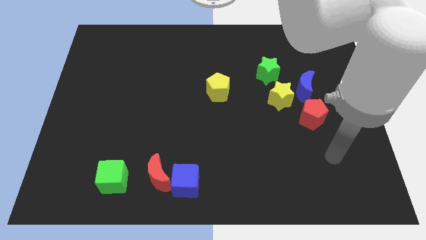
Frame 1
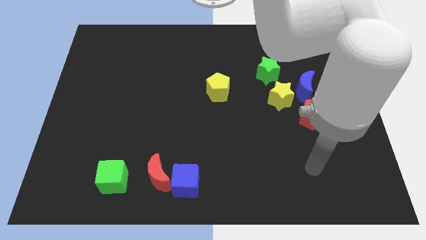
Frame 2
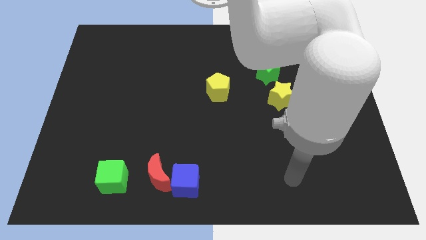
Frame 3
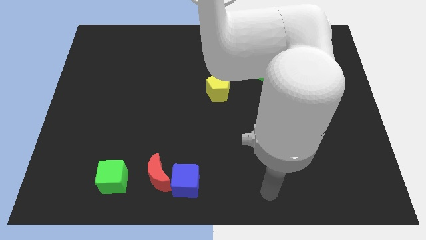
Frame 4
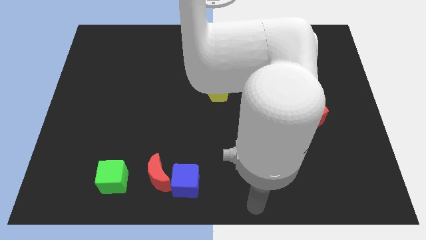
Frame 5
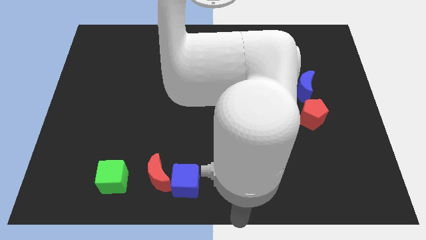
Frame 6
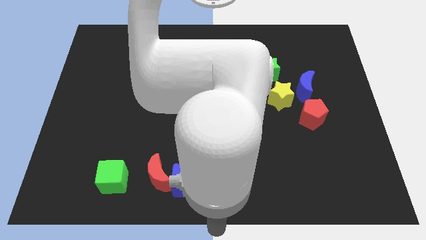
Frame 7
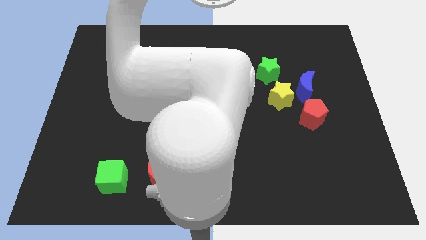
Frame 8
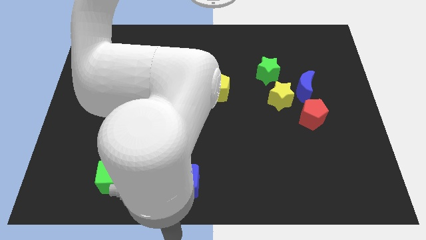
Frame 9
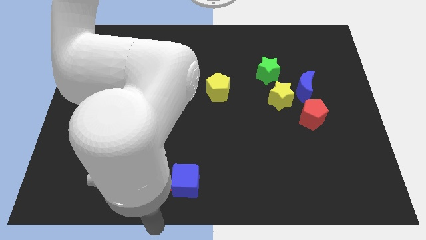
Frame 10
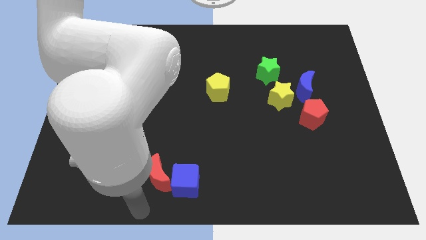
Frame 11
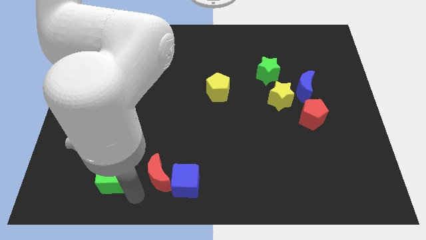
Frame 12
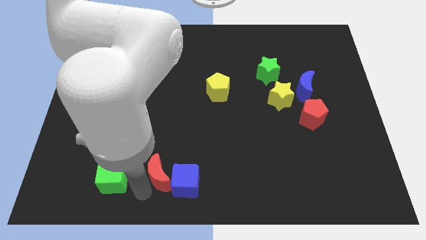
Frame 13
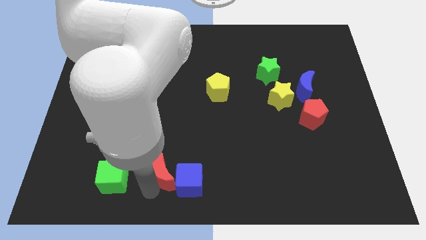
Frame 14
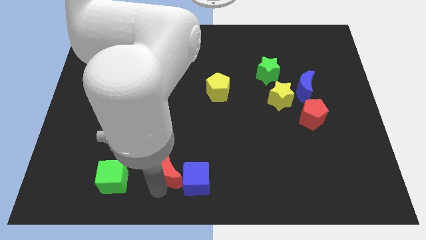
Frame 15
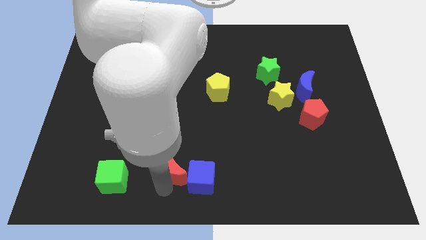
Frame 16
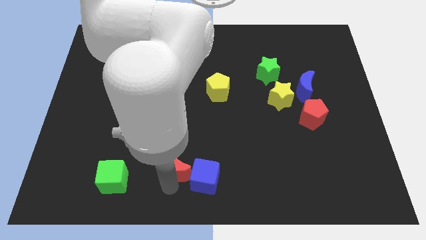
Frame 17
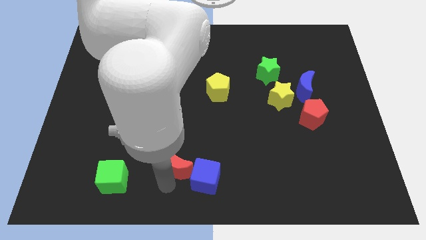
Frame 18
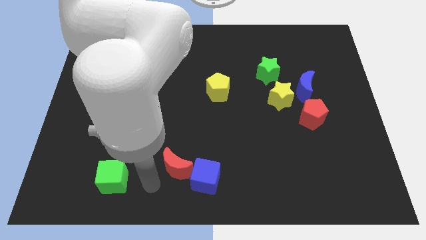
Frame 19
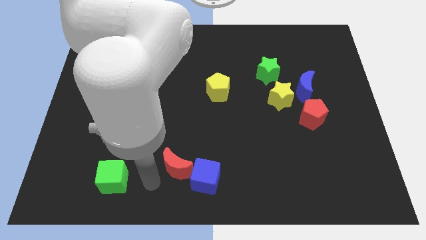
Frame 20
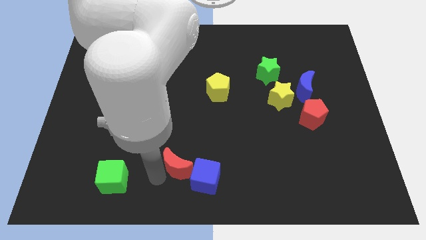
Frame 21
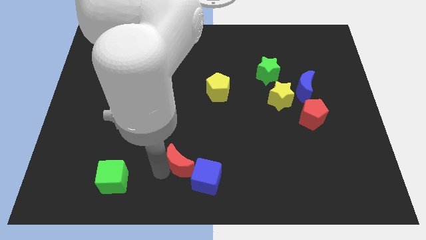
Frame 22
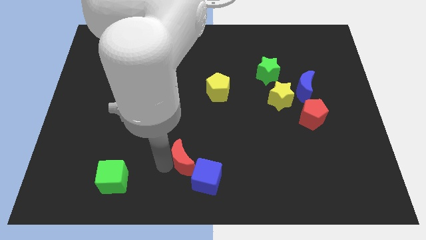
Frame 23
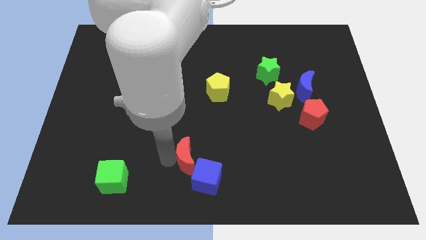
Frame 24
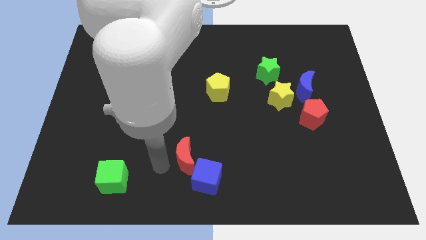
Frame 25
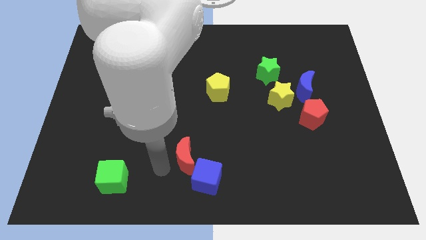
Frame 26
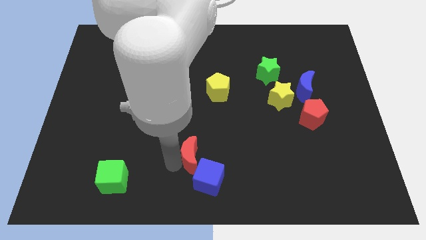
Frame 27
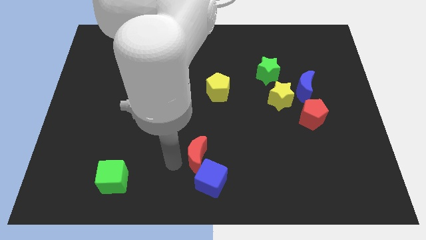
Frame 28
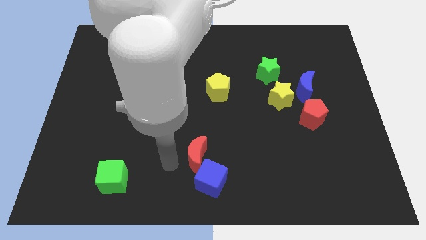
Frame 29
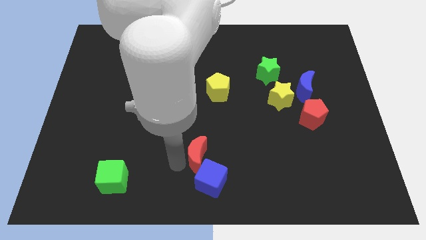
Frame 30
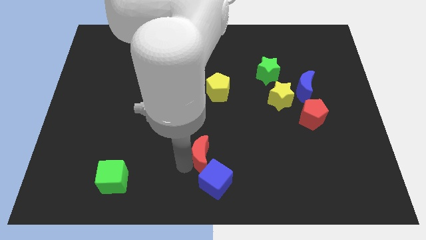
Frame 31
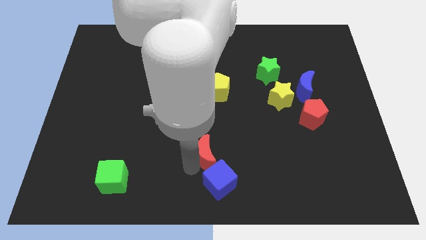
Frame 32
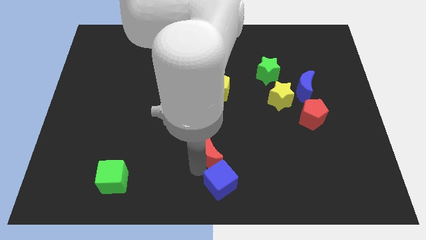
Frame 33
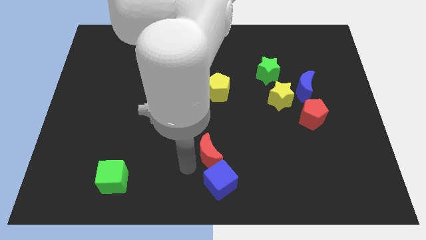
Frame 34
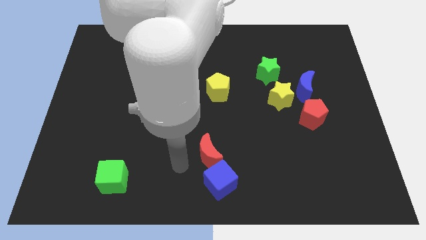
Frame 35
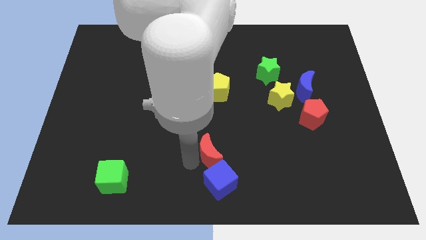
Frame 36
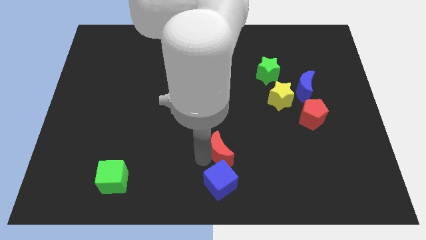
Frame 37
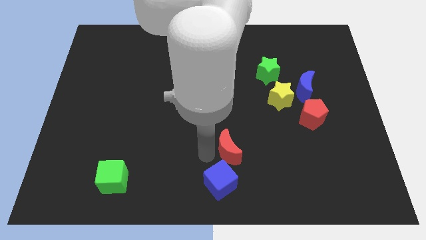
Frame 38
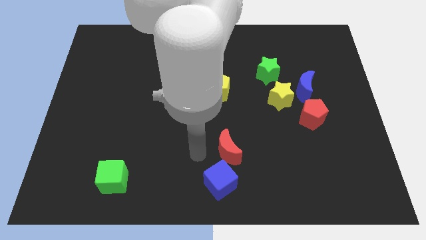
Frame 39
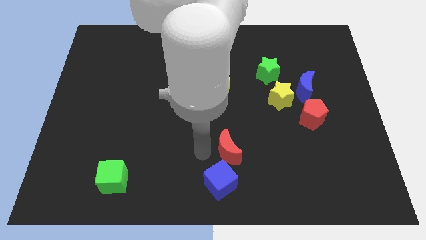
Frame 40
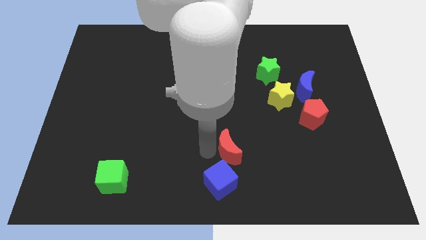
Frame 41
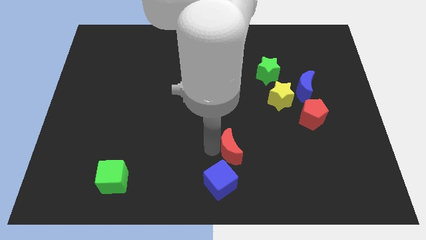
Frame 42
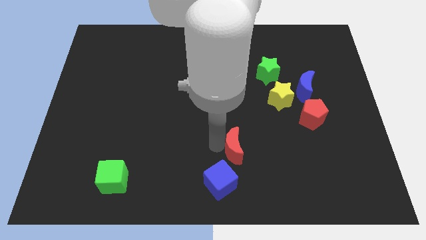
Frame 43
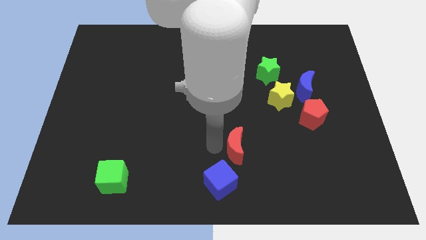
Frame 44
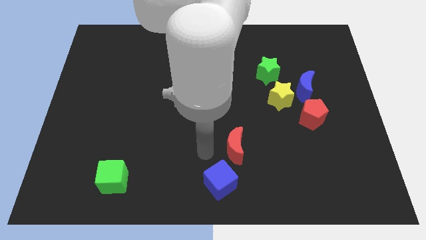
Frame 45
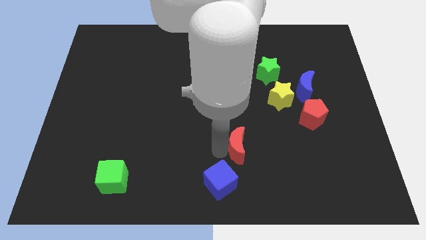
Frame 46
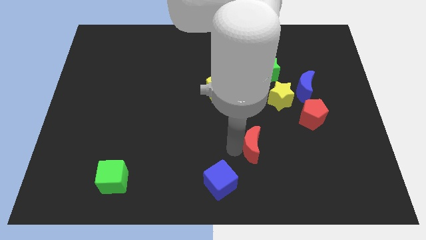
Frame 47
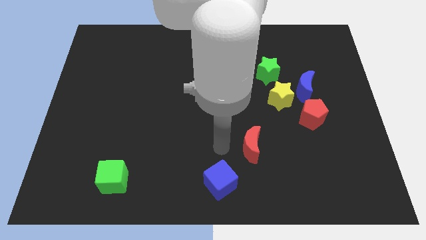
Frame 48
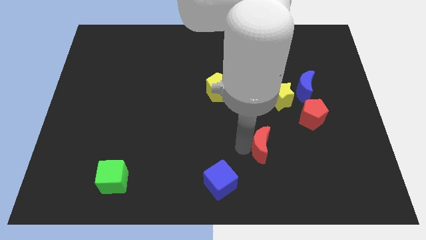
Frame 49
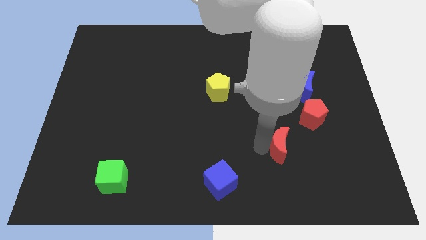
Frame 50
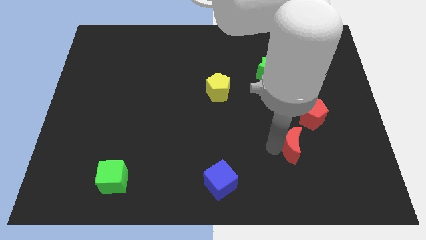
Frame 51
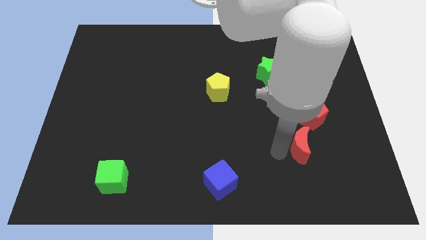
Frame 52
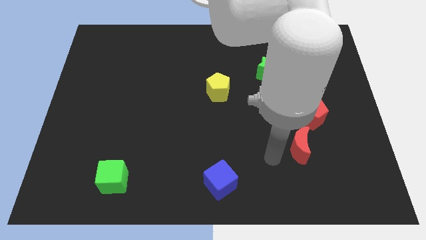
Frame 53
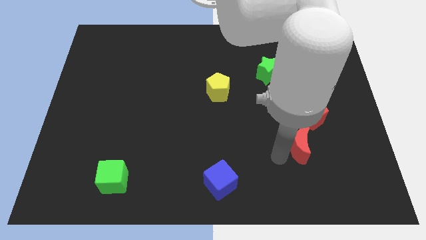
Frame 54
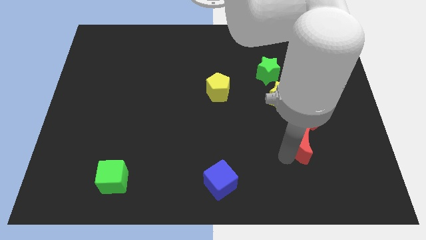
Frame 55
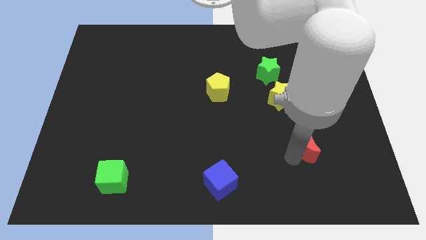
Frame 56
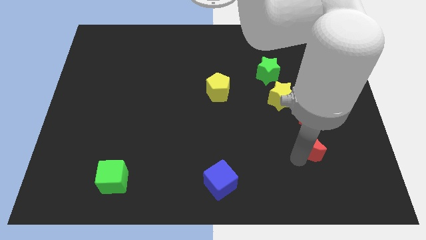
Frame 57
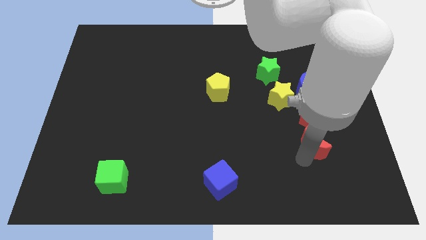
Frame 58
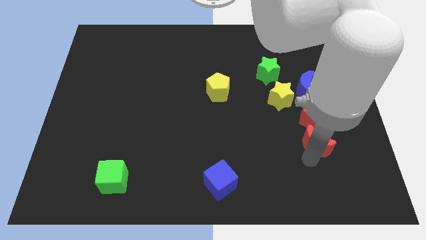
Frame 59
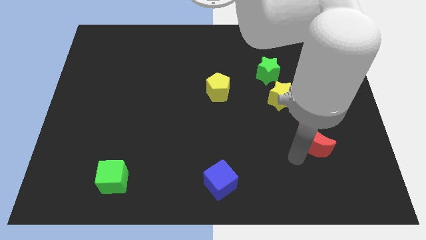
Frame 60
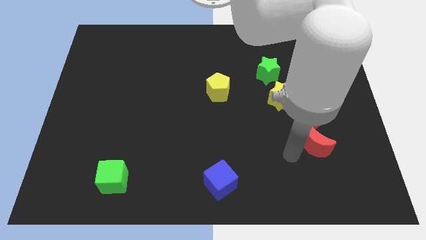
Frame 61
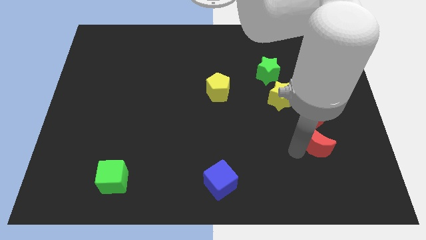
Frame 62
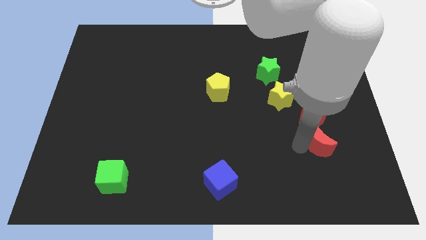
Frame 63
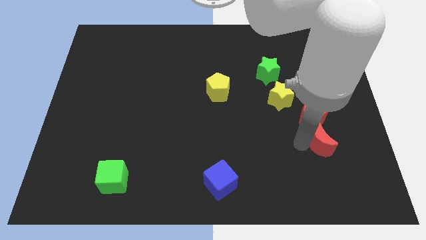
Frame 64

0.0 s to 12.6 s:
put the red moon to the bottom right of the red pentagon

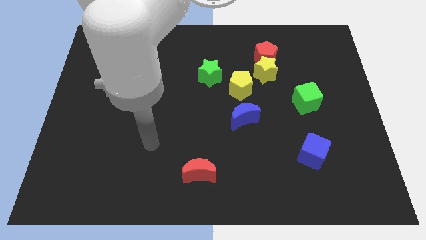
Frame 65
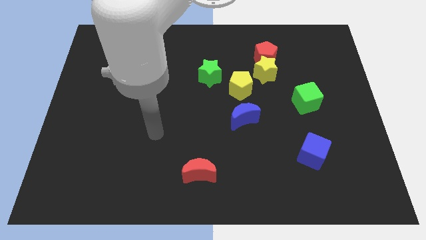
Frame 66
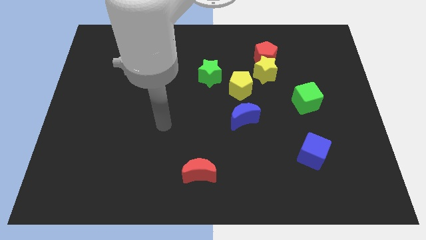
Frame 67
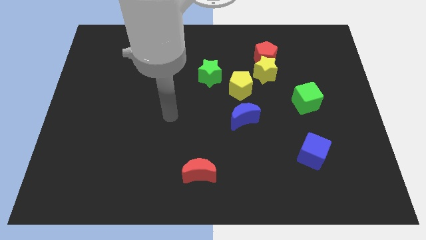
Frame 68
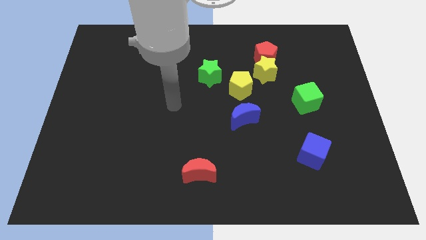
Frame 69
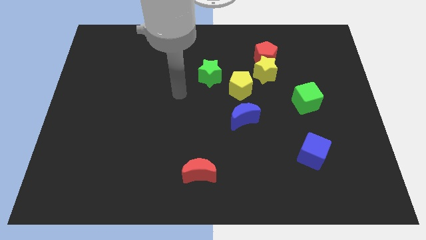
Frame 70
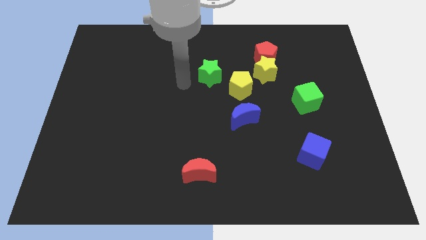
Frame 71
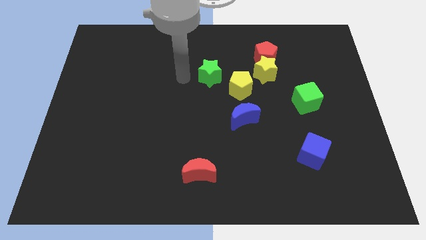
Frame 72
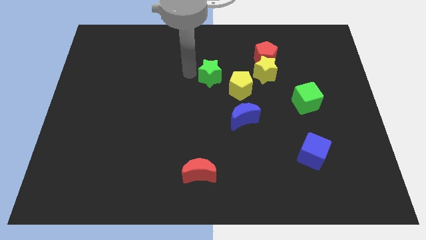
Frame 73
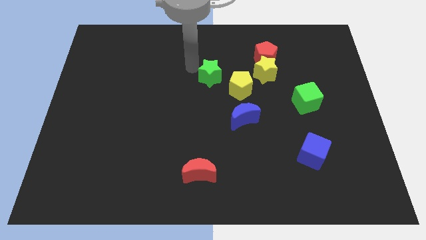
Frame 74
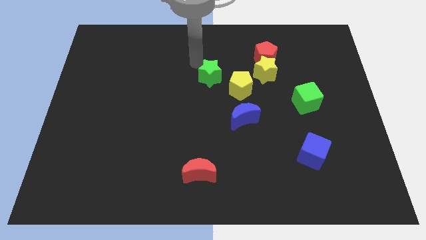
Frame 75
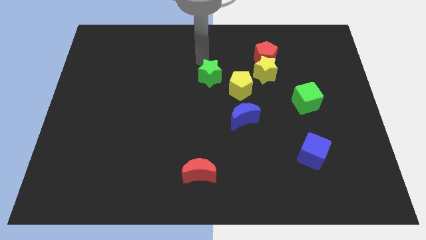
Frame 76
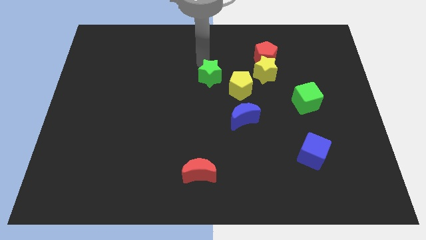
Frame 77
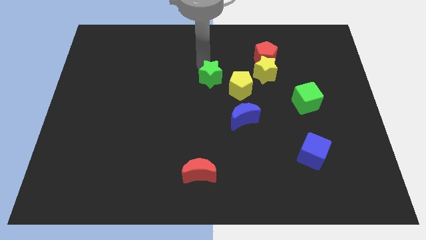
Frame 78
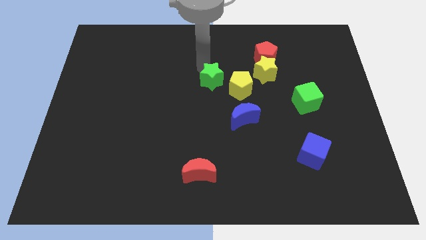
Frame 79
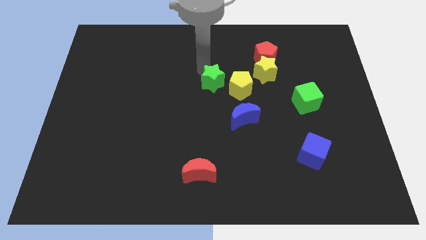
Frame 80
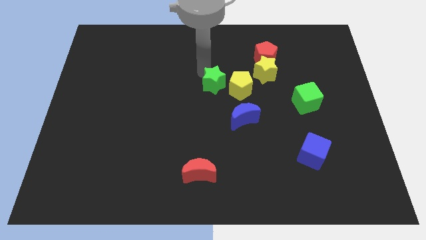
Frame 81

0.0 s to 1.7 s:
slide the green star to the top left side of the blue moon

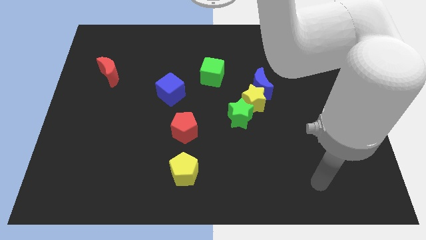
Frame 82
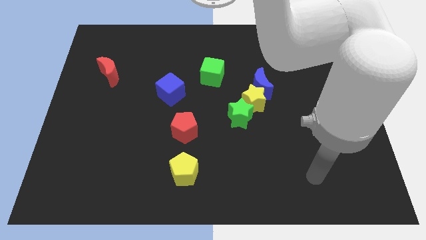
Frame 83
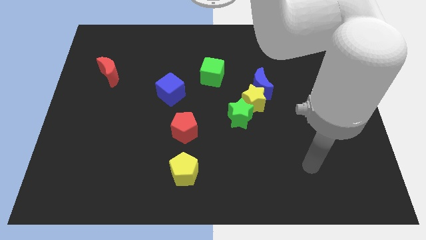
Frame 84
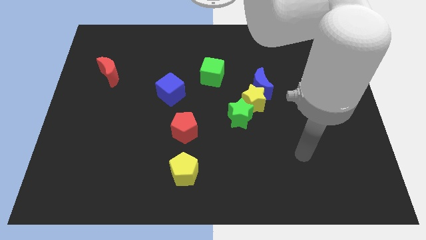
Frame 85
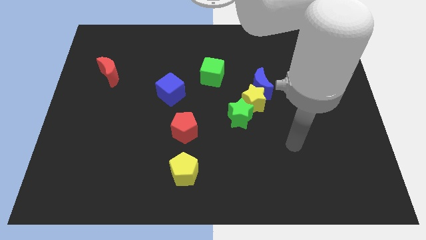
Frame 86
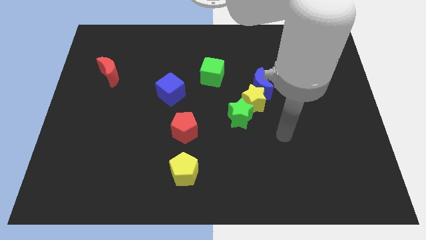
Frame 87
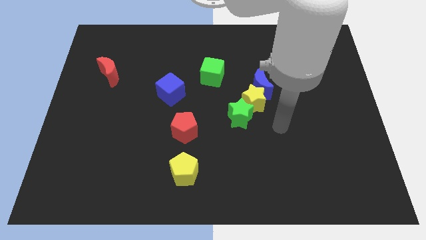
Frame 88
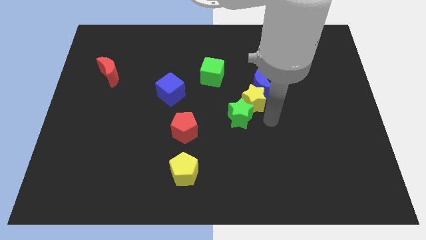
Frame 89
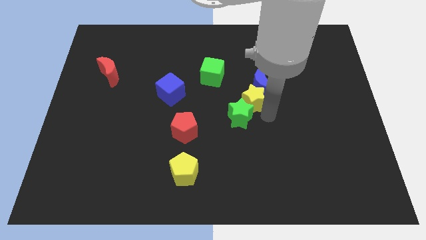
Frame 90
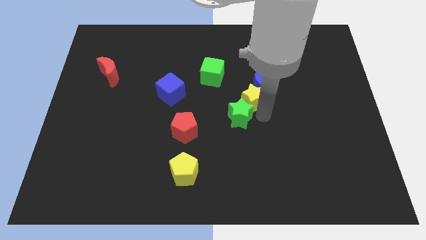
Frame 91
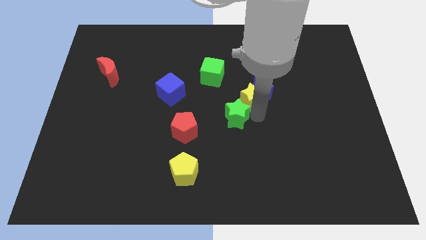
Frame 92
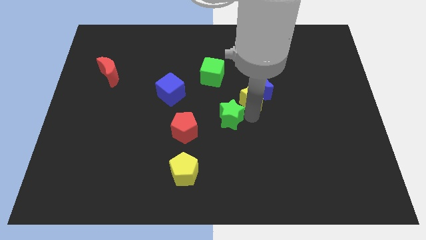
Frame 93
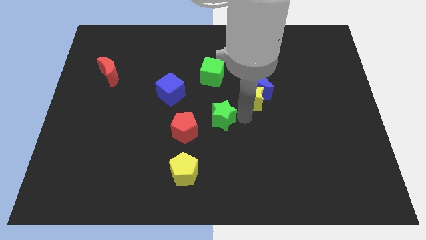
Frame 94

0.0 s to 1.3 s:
slide the green star diagonally up and to the right of the red pentagon
